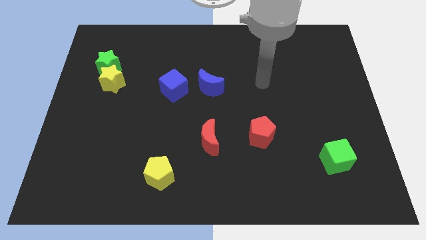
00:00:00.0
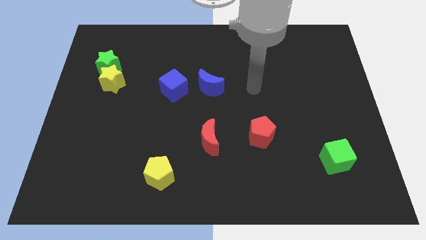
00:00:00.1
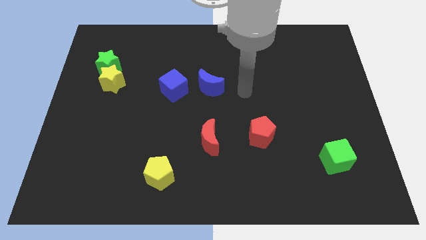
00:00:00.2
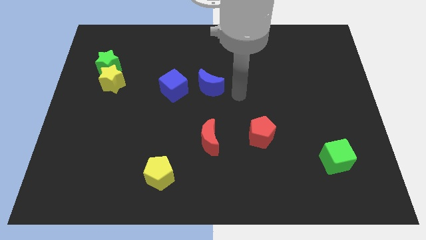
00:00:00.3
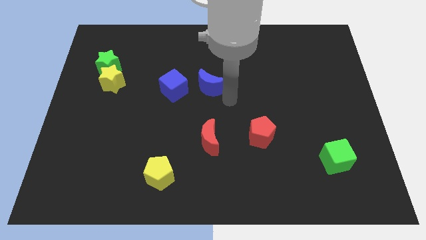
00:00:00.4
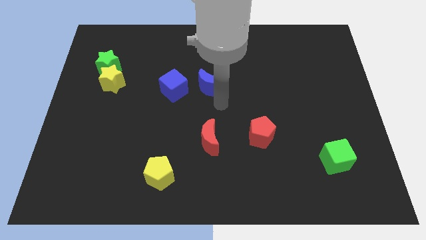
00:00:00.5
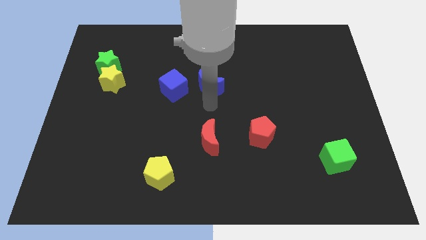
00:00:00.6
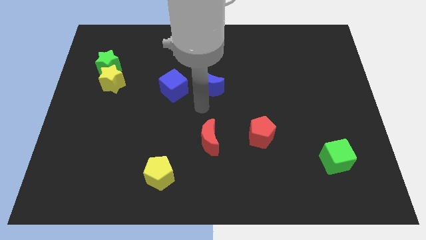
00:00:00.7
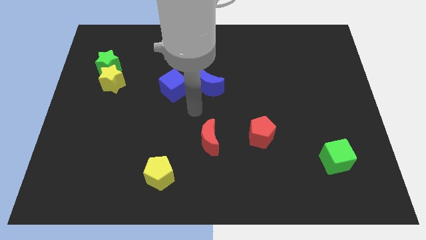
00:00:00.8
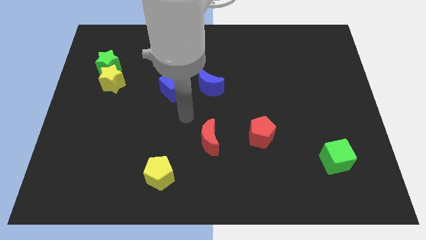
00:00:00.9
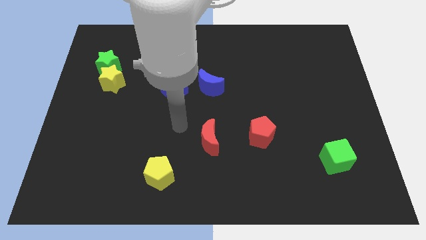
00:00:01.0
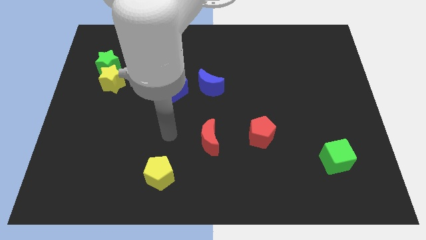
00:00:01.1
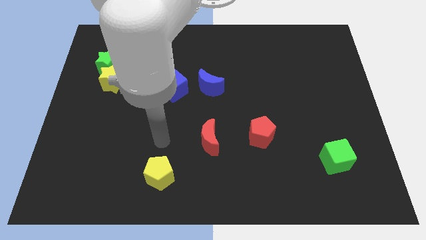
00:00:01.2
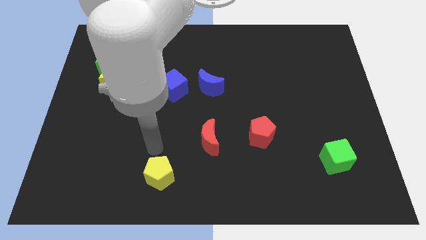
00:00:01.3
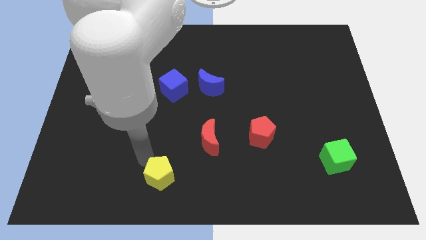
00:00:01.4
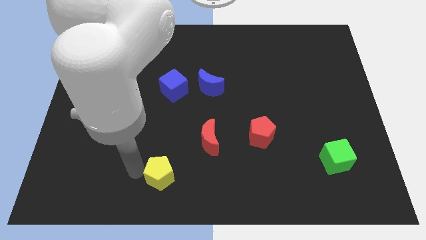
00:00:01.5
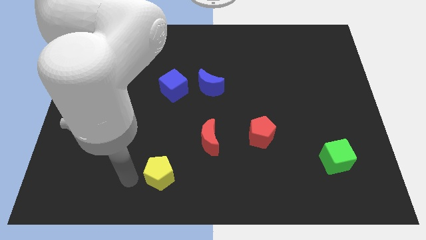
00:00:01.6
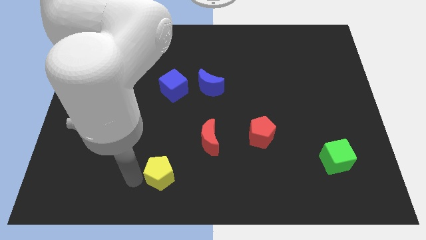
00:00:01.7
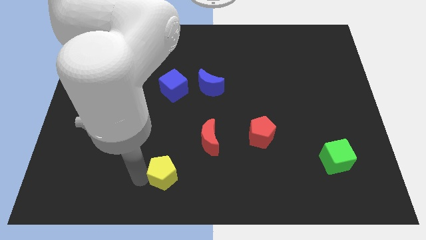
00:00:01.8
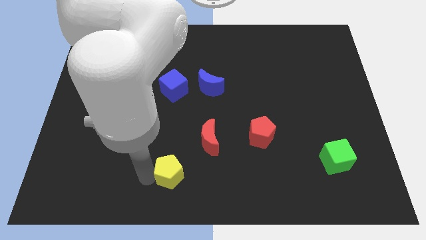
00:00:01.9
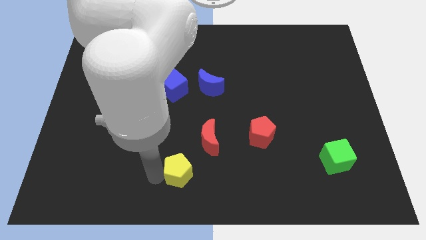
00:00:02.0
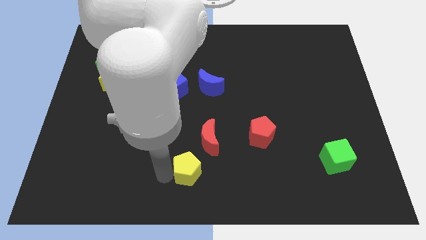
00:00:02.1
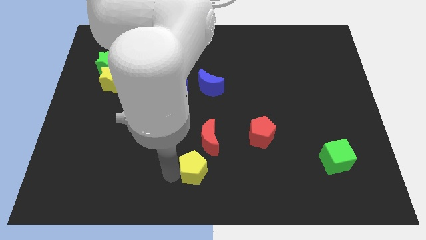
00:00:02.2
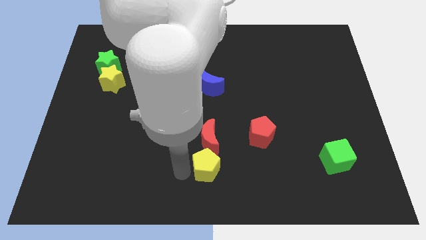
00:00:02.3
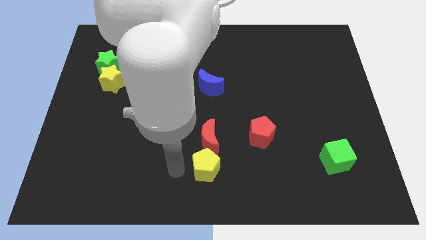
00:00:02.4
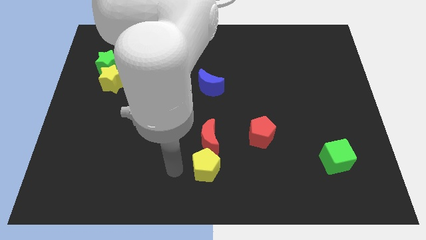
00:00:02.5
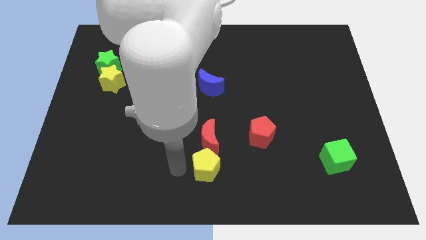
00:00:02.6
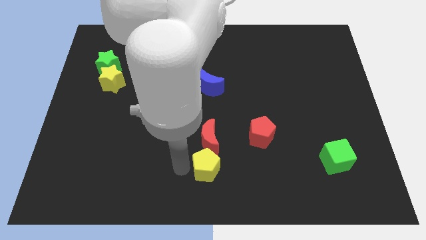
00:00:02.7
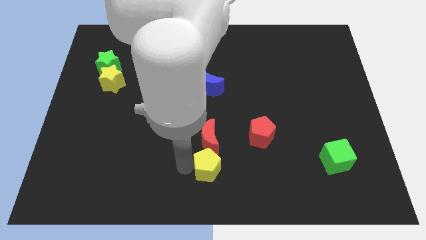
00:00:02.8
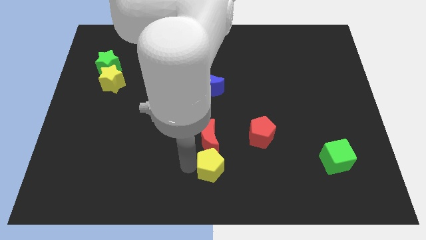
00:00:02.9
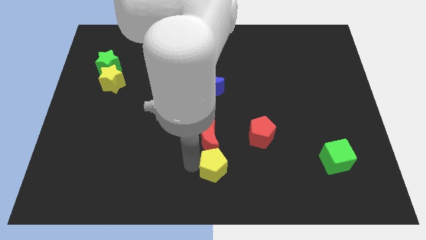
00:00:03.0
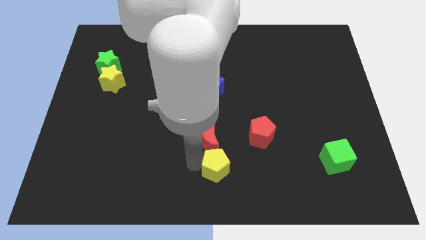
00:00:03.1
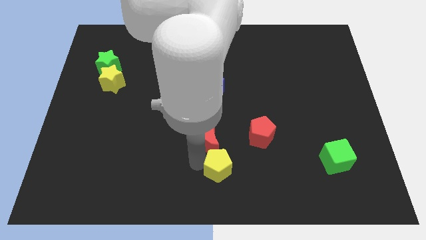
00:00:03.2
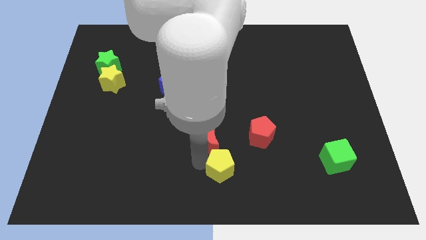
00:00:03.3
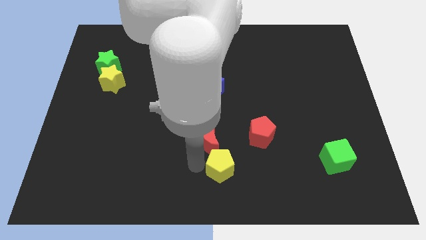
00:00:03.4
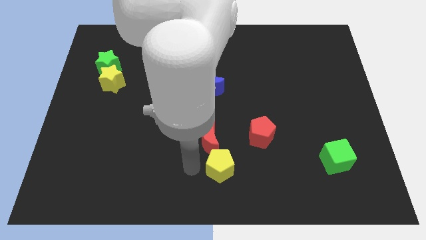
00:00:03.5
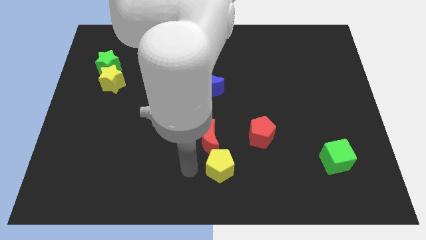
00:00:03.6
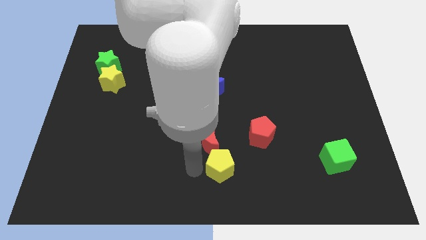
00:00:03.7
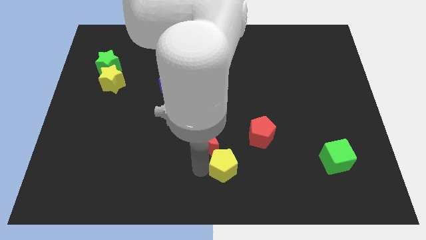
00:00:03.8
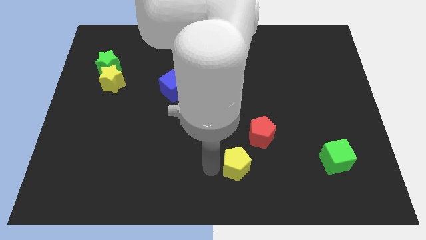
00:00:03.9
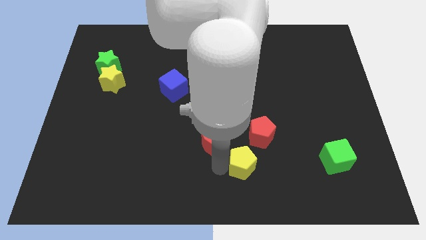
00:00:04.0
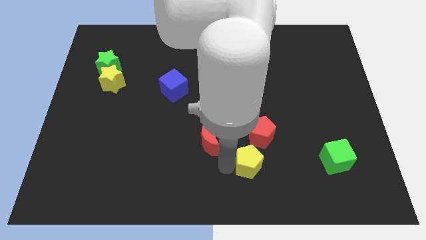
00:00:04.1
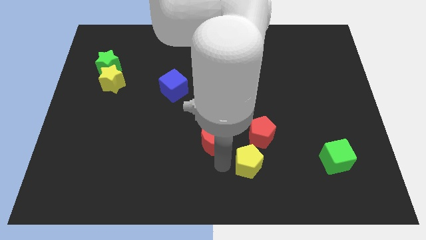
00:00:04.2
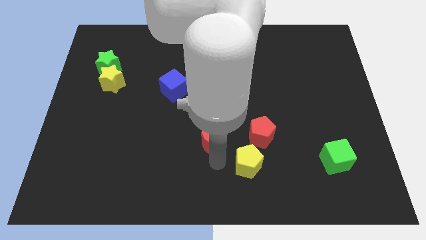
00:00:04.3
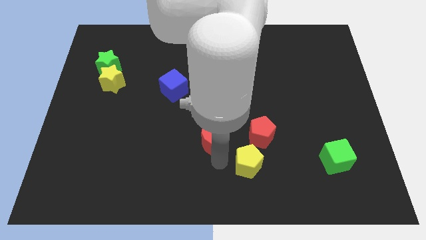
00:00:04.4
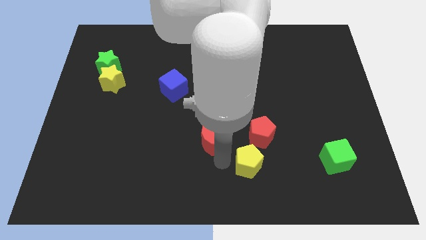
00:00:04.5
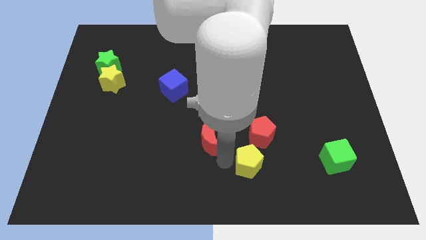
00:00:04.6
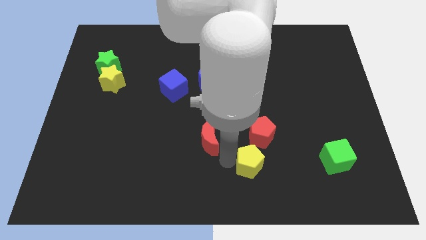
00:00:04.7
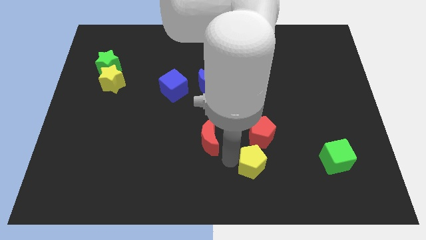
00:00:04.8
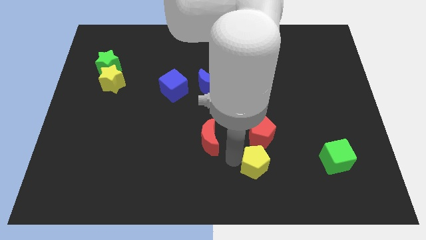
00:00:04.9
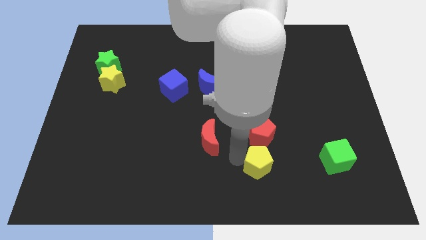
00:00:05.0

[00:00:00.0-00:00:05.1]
slide the yellow pentagon right

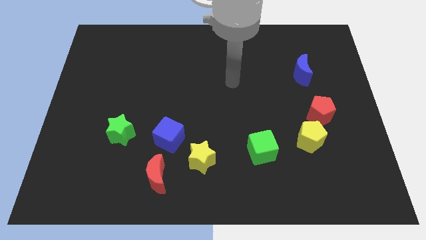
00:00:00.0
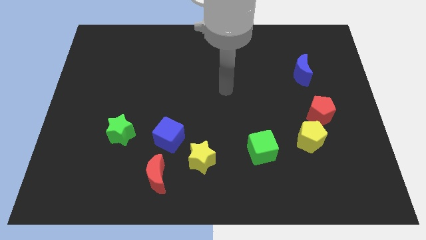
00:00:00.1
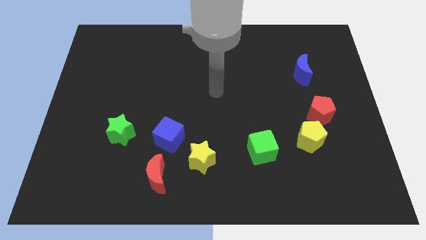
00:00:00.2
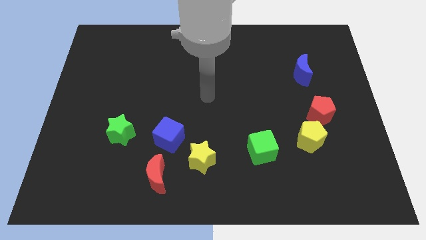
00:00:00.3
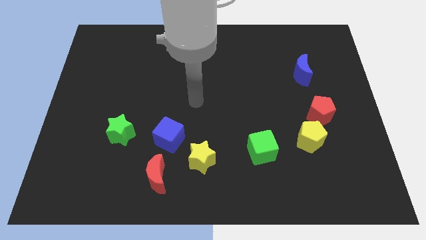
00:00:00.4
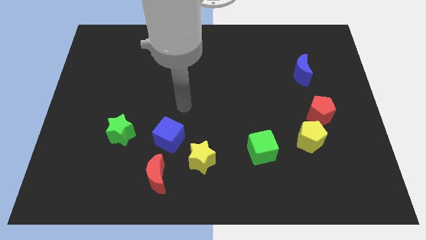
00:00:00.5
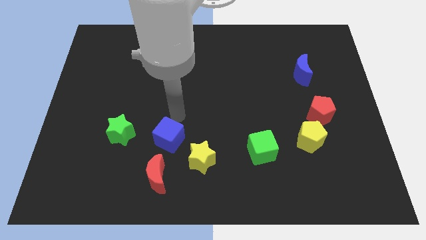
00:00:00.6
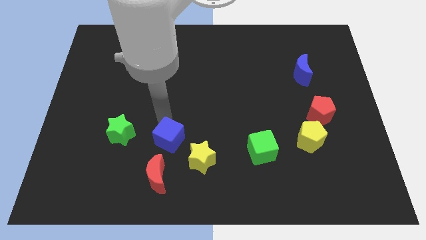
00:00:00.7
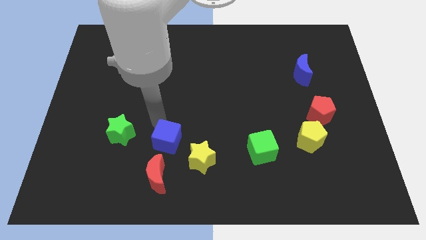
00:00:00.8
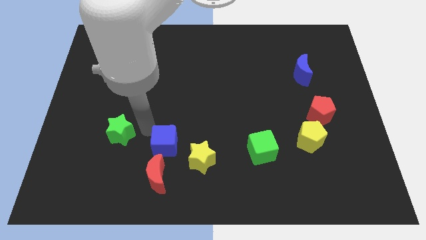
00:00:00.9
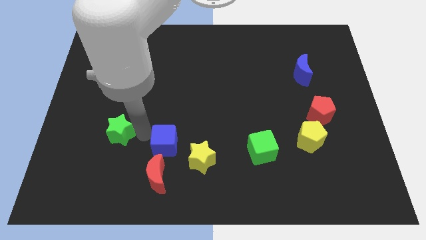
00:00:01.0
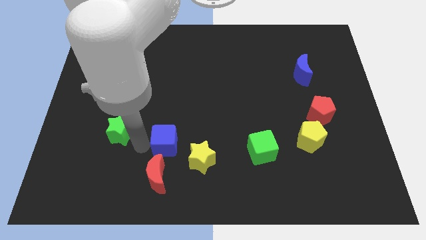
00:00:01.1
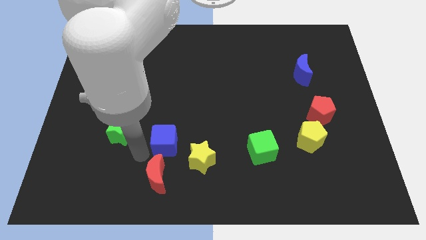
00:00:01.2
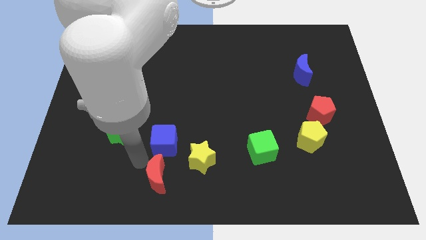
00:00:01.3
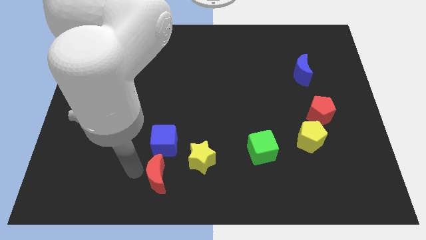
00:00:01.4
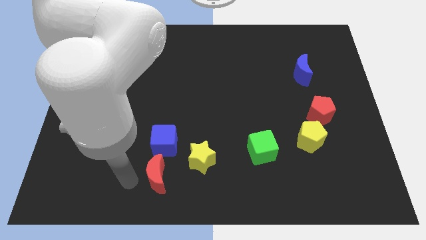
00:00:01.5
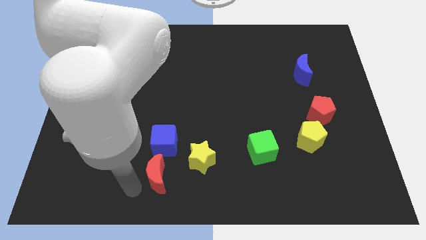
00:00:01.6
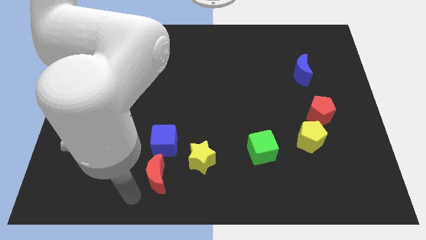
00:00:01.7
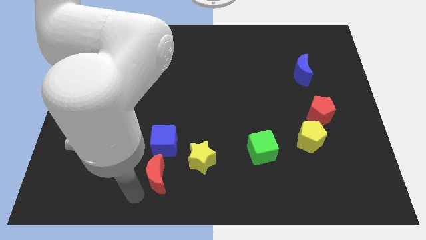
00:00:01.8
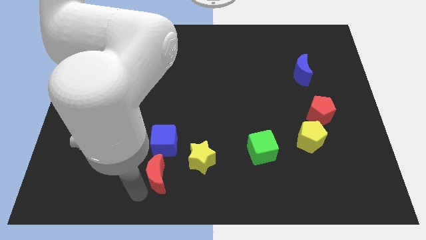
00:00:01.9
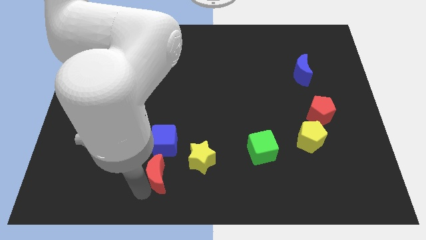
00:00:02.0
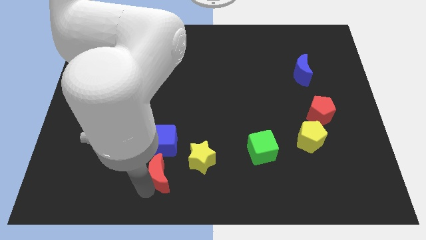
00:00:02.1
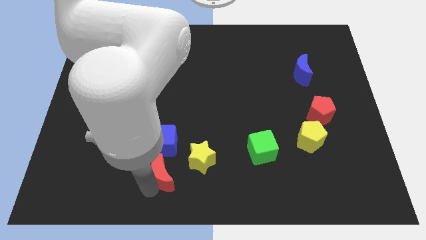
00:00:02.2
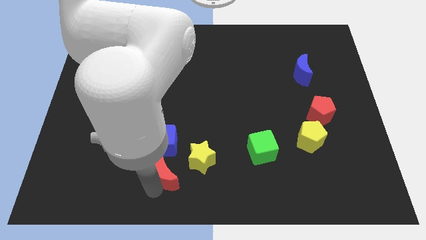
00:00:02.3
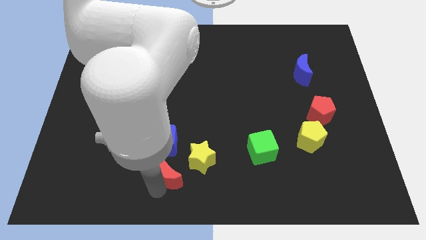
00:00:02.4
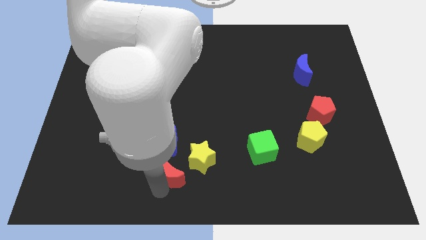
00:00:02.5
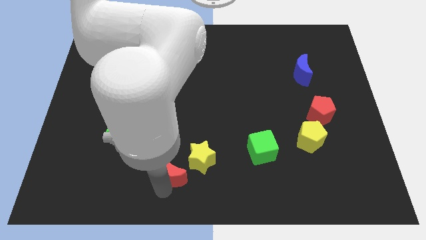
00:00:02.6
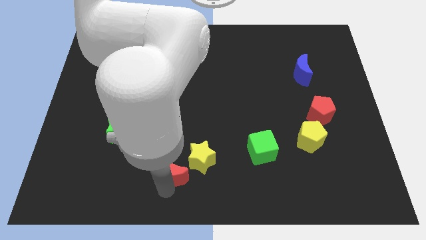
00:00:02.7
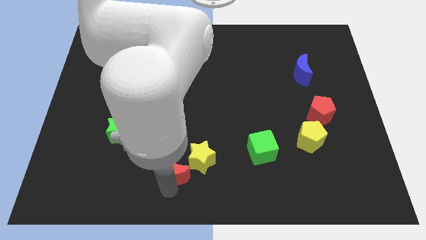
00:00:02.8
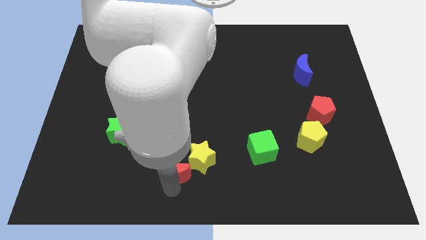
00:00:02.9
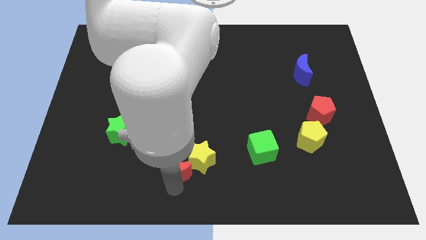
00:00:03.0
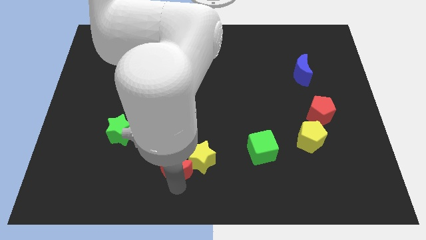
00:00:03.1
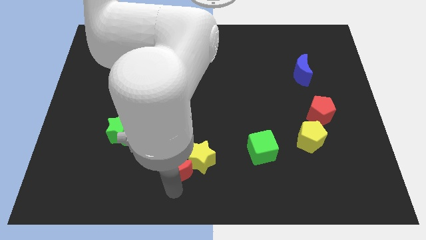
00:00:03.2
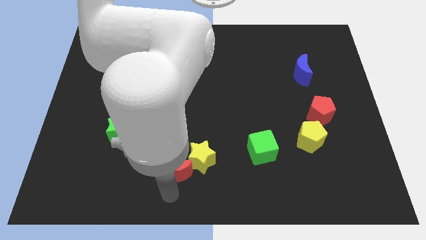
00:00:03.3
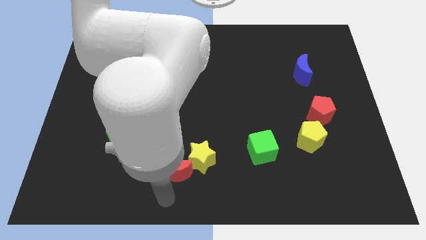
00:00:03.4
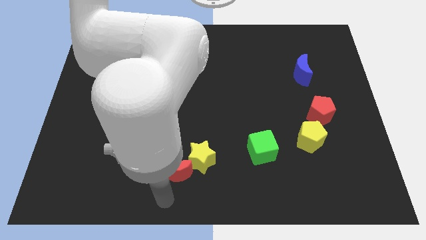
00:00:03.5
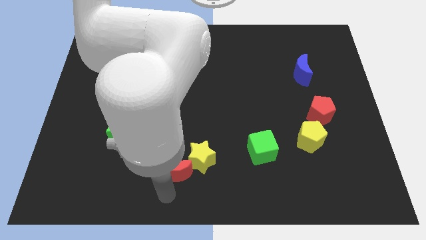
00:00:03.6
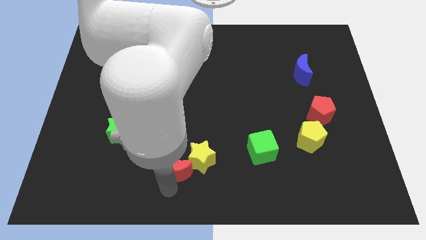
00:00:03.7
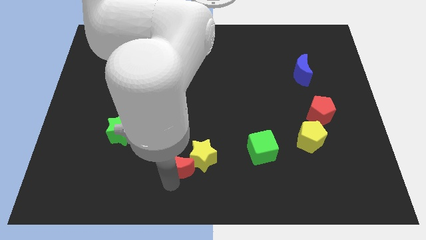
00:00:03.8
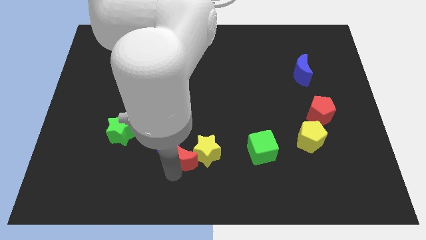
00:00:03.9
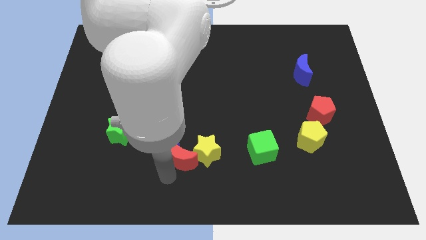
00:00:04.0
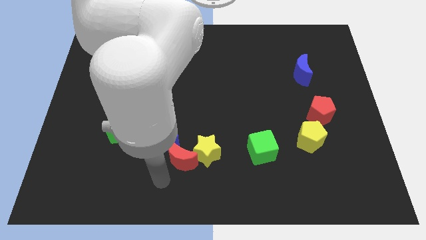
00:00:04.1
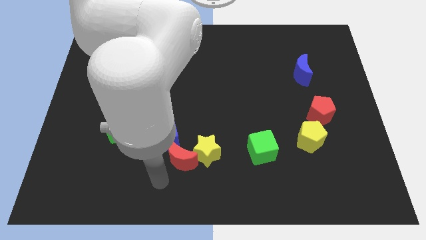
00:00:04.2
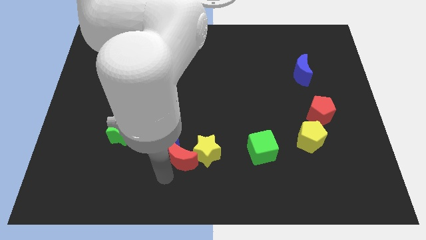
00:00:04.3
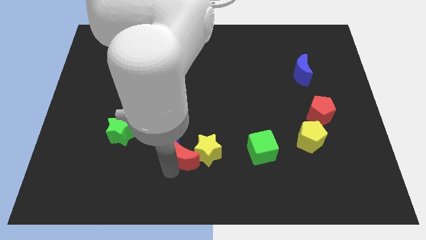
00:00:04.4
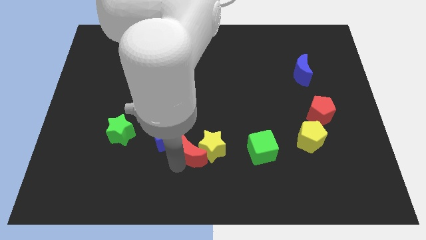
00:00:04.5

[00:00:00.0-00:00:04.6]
push the red moon a little bit diagonally upwards and right
